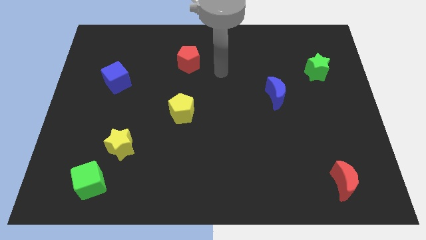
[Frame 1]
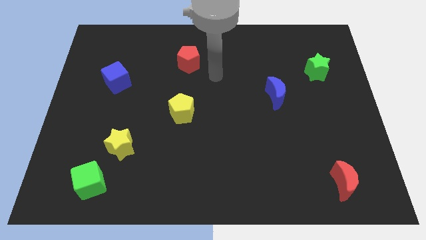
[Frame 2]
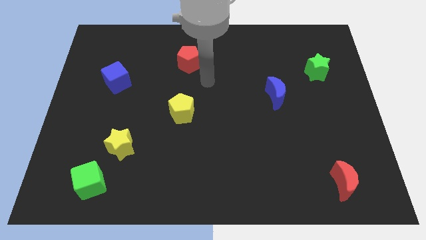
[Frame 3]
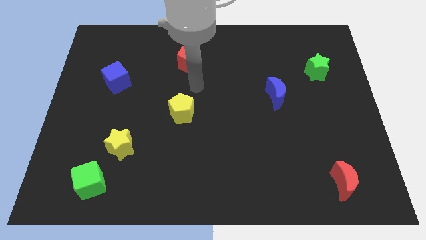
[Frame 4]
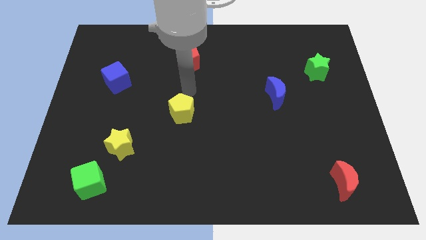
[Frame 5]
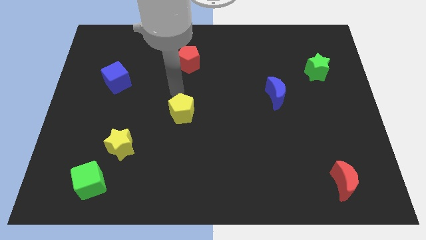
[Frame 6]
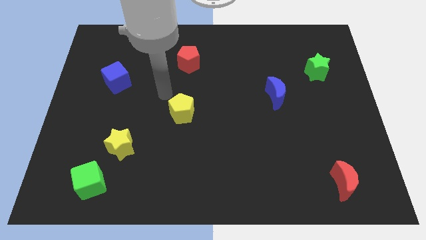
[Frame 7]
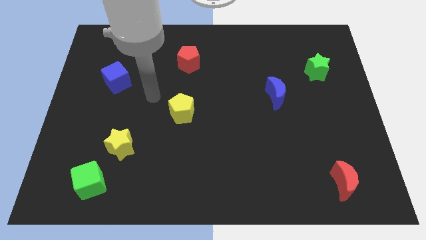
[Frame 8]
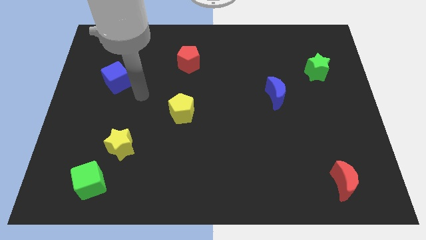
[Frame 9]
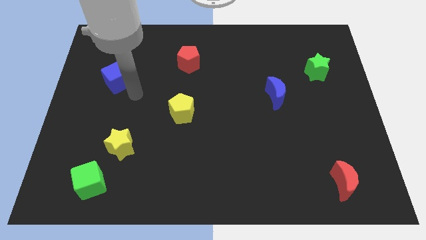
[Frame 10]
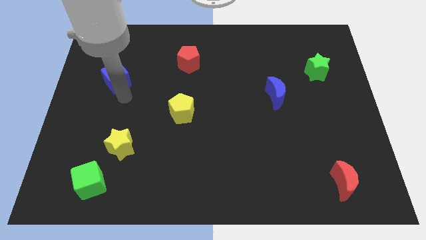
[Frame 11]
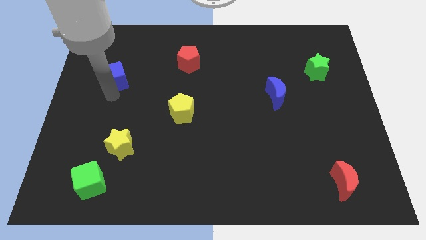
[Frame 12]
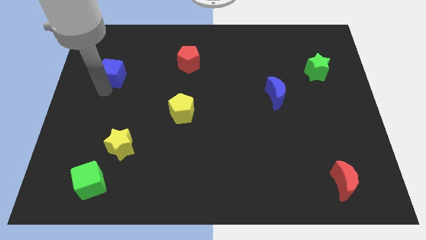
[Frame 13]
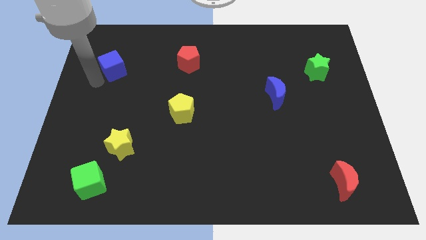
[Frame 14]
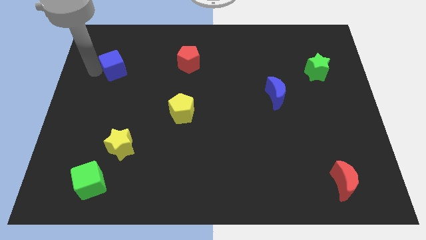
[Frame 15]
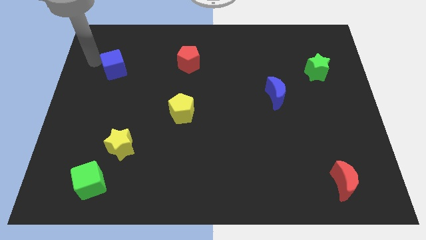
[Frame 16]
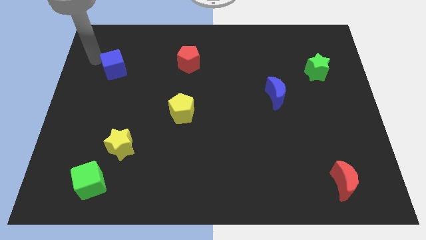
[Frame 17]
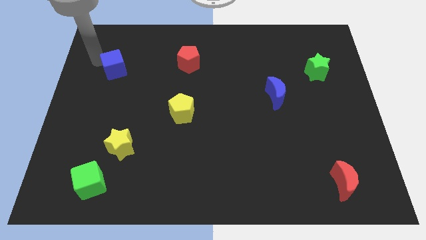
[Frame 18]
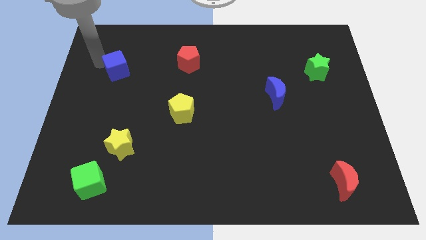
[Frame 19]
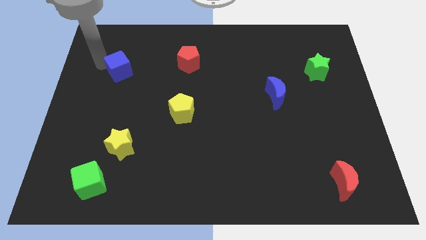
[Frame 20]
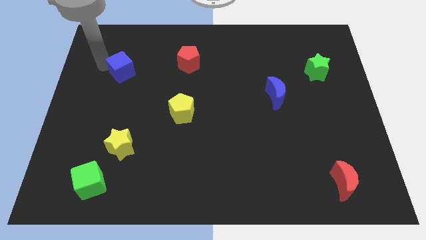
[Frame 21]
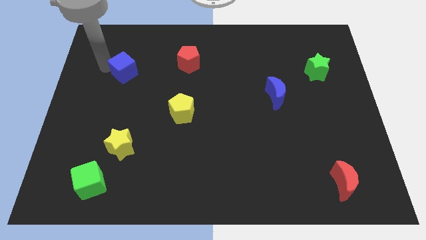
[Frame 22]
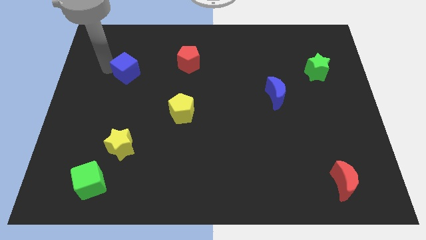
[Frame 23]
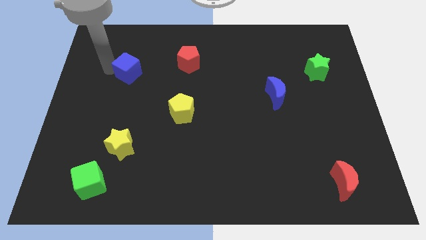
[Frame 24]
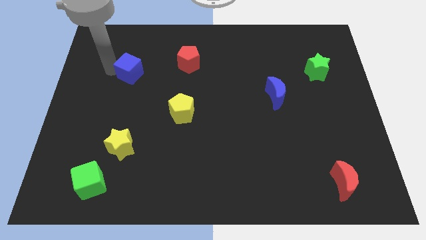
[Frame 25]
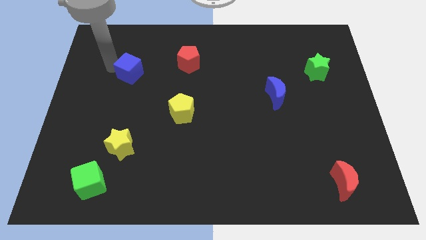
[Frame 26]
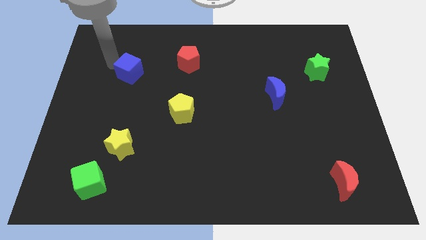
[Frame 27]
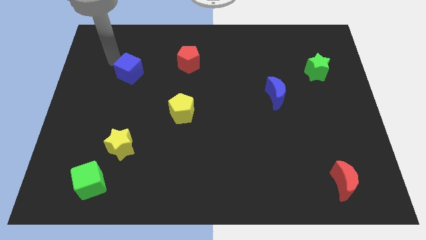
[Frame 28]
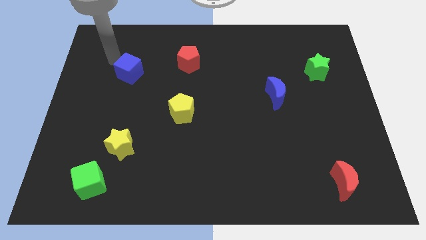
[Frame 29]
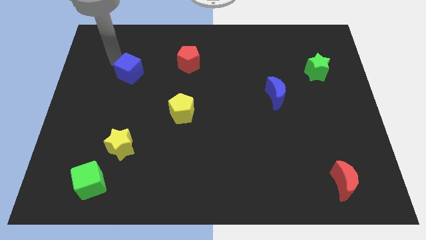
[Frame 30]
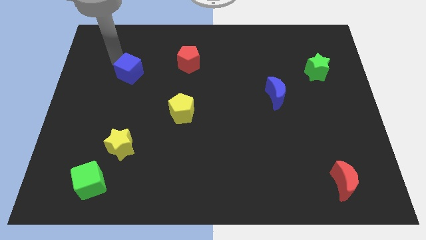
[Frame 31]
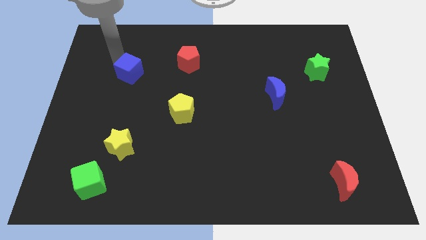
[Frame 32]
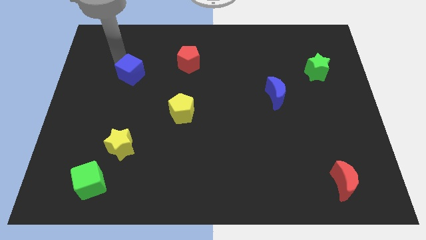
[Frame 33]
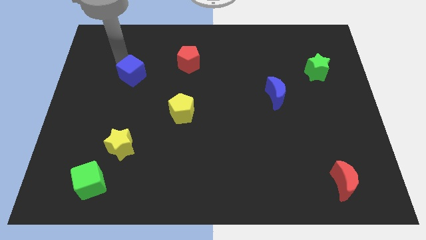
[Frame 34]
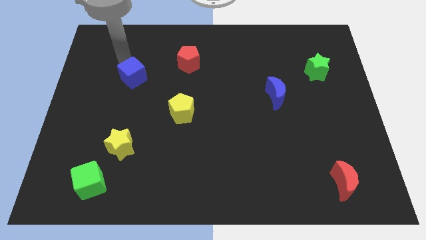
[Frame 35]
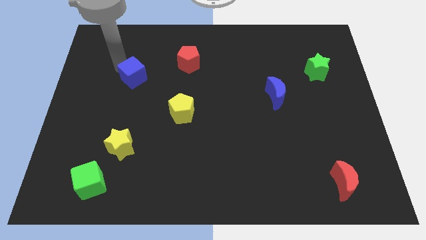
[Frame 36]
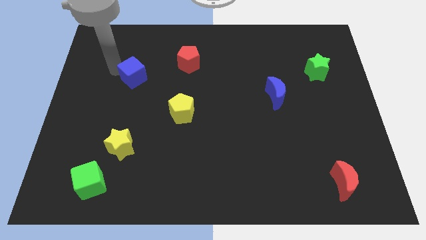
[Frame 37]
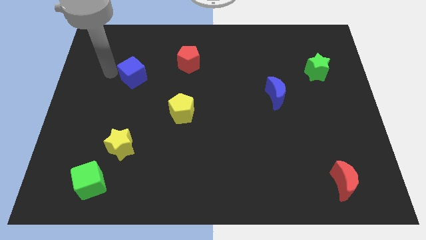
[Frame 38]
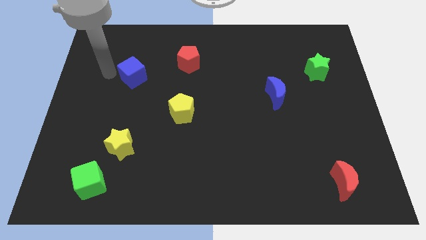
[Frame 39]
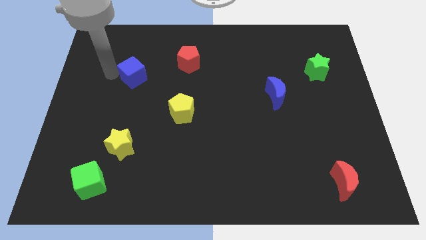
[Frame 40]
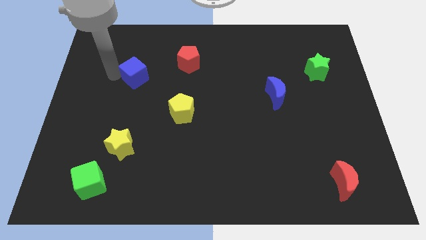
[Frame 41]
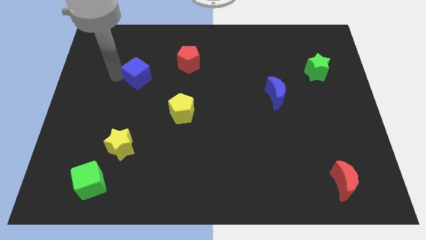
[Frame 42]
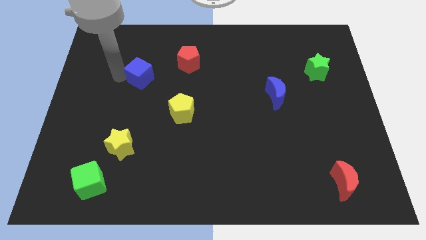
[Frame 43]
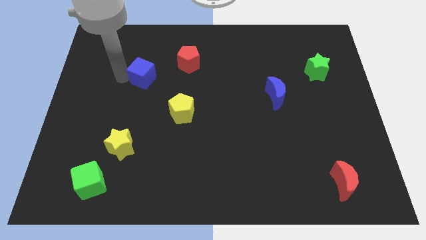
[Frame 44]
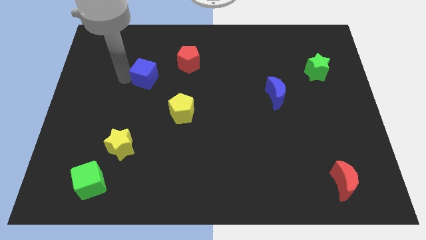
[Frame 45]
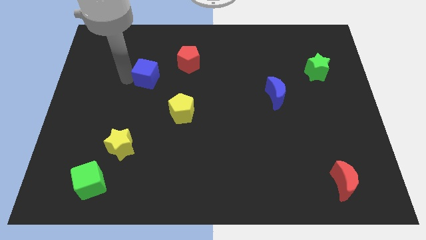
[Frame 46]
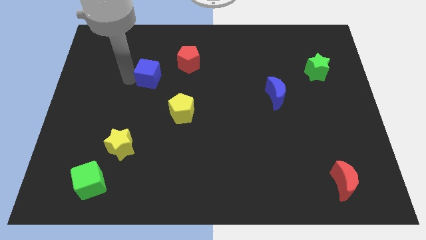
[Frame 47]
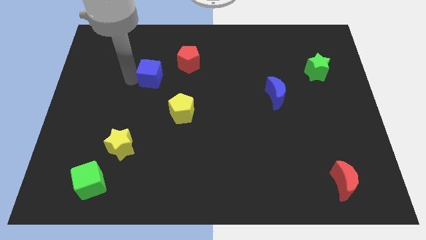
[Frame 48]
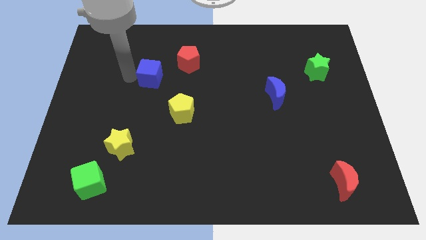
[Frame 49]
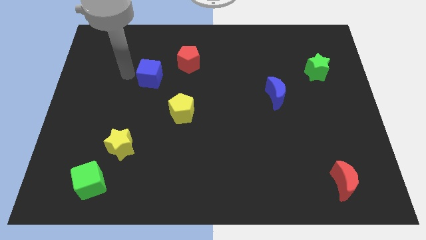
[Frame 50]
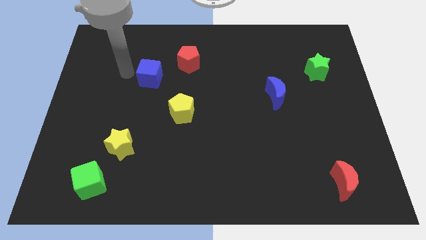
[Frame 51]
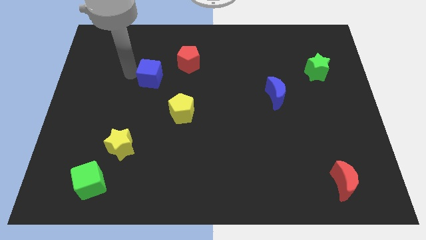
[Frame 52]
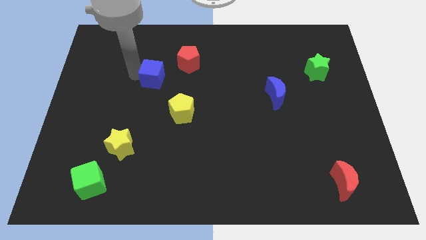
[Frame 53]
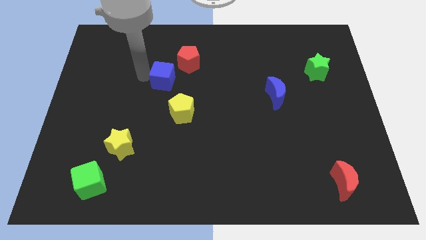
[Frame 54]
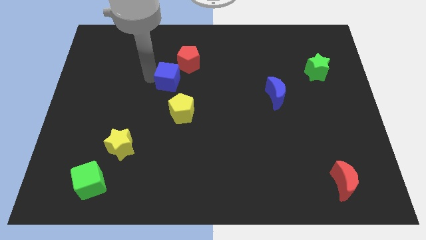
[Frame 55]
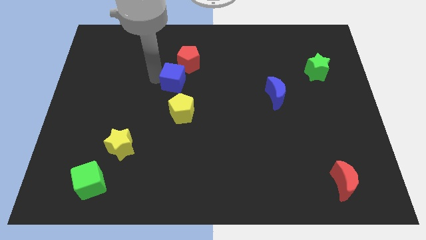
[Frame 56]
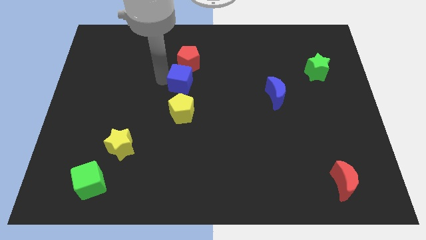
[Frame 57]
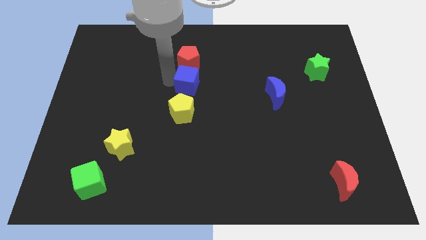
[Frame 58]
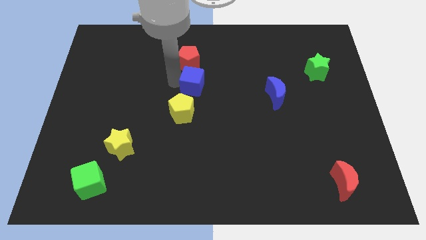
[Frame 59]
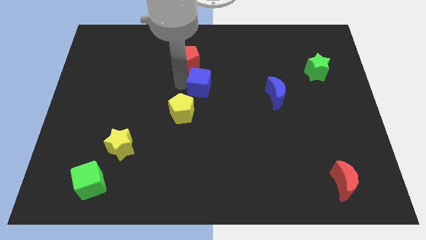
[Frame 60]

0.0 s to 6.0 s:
push the blue cube right

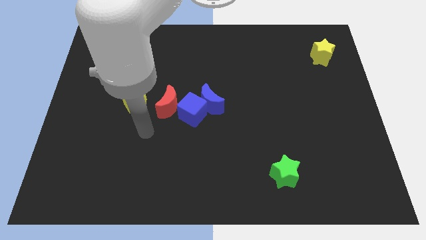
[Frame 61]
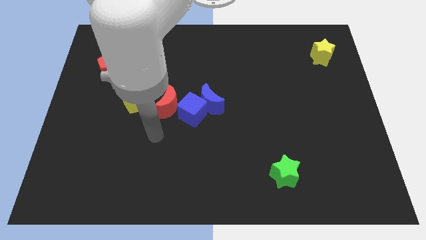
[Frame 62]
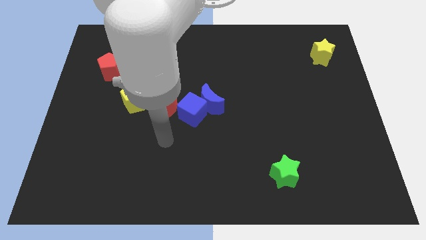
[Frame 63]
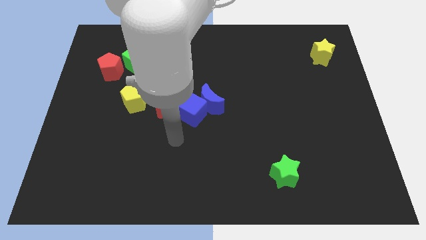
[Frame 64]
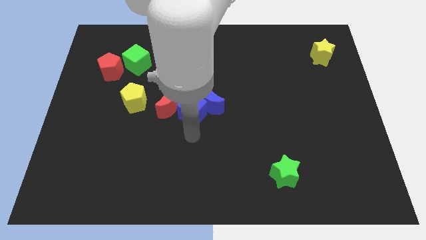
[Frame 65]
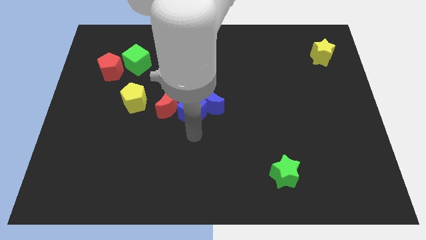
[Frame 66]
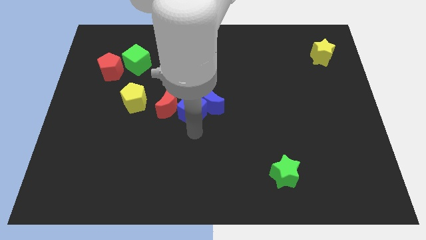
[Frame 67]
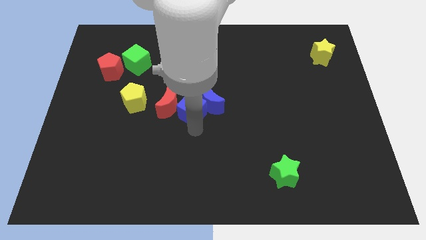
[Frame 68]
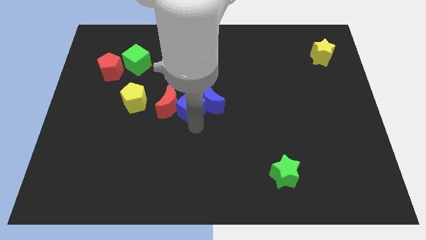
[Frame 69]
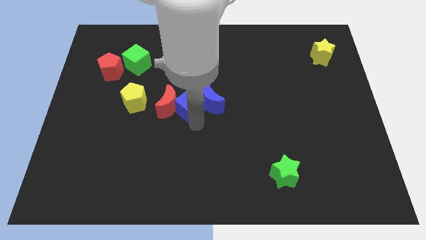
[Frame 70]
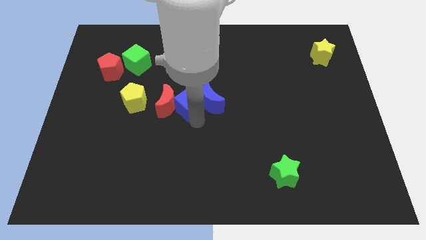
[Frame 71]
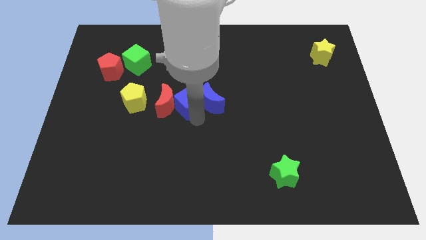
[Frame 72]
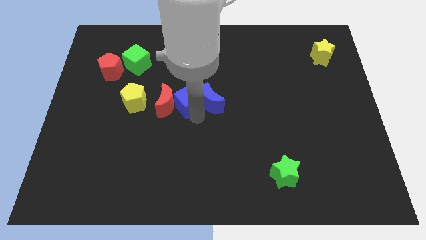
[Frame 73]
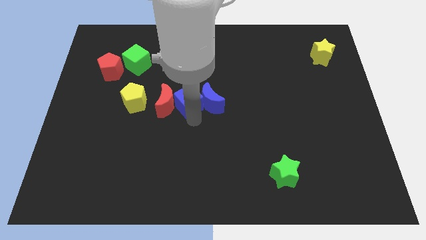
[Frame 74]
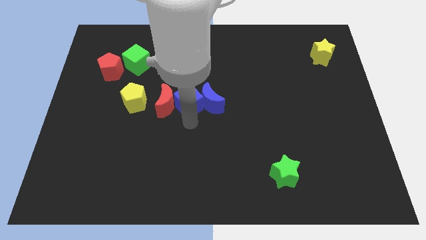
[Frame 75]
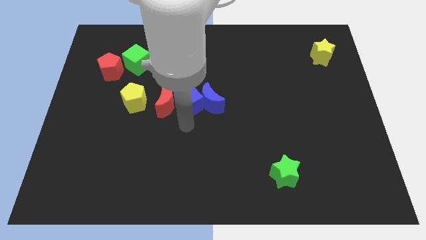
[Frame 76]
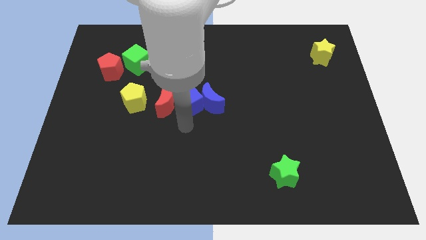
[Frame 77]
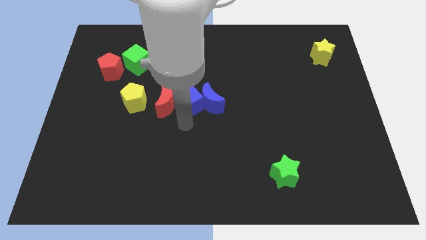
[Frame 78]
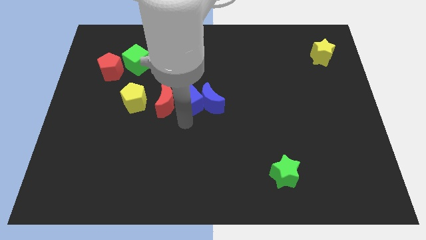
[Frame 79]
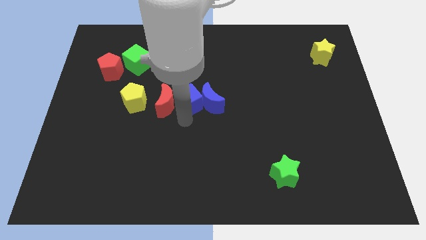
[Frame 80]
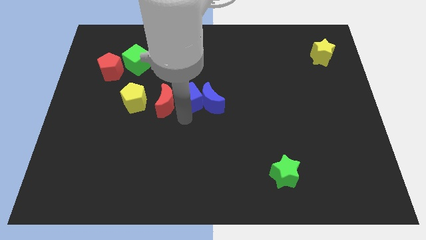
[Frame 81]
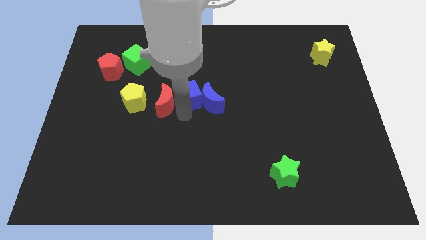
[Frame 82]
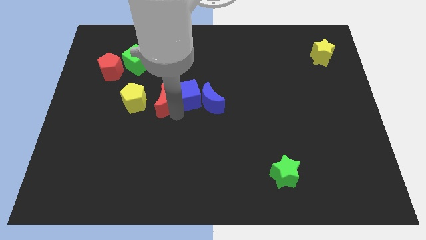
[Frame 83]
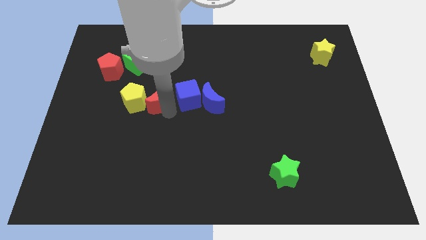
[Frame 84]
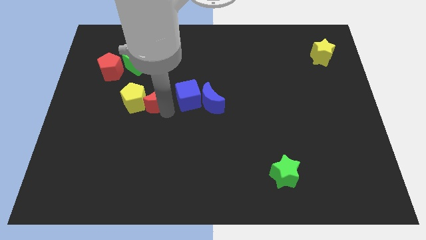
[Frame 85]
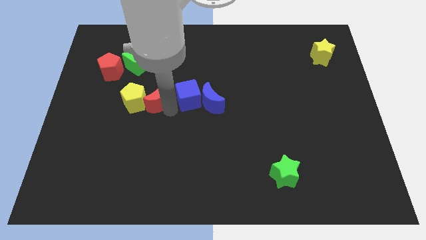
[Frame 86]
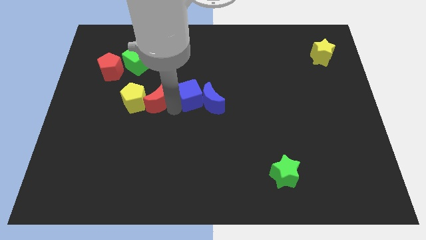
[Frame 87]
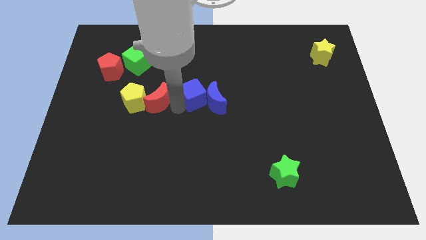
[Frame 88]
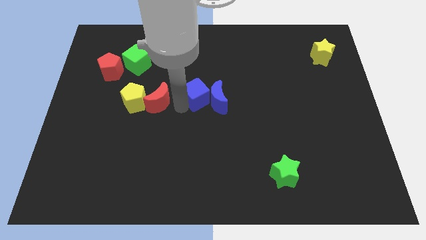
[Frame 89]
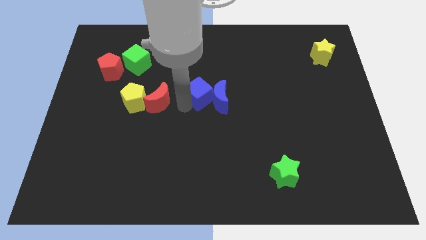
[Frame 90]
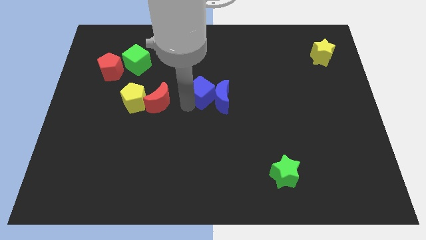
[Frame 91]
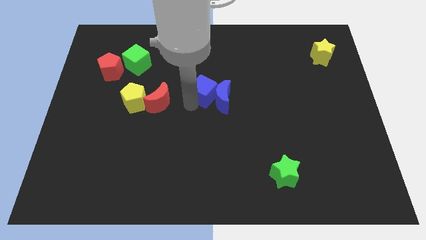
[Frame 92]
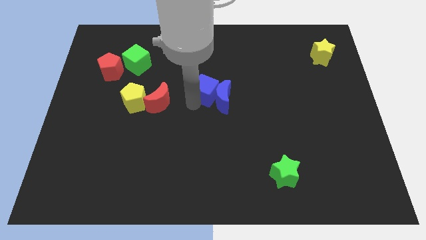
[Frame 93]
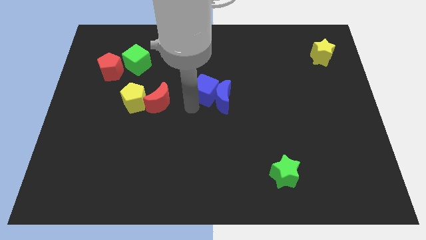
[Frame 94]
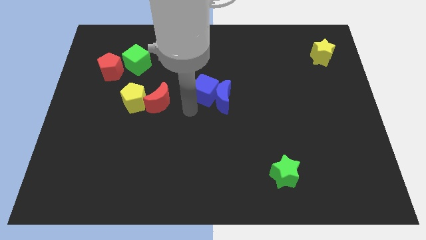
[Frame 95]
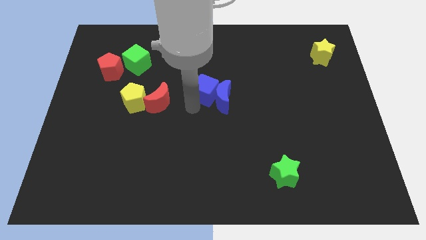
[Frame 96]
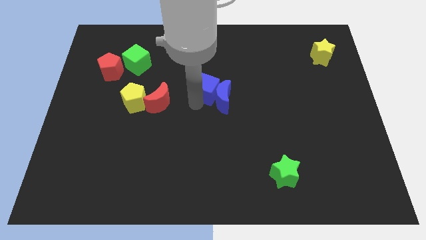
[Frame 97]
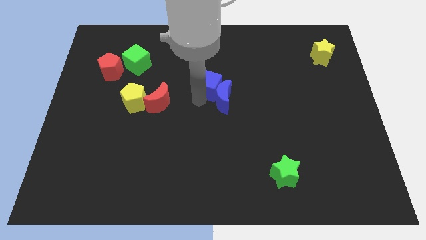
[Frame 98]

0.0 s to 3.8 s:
slightly push the blue cube upwards and right
